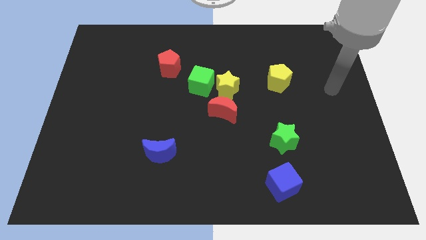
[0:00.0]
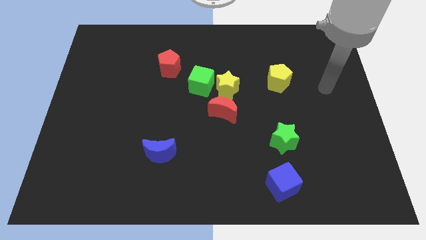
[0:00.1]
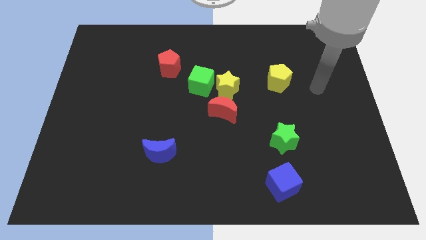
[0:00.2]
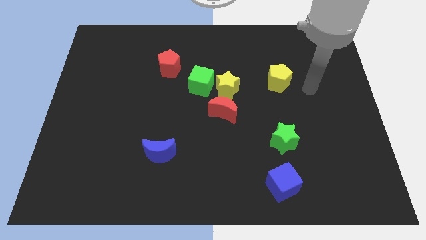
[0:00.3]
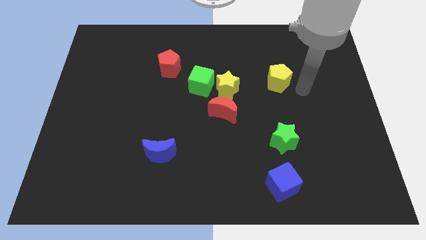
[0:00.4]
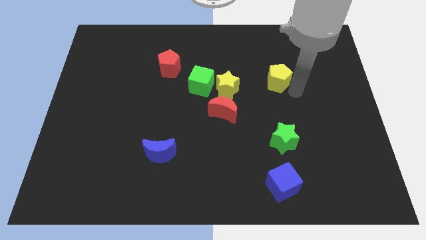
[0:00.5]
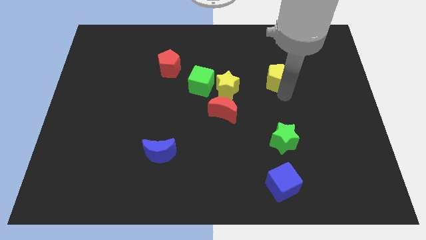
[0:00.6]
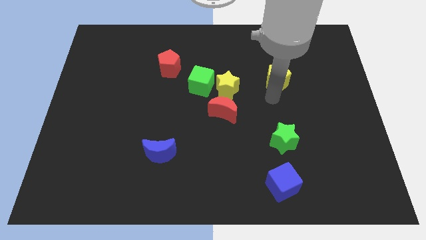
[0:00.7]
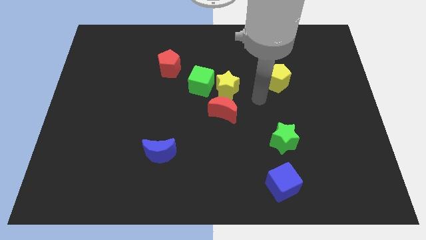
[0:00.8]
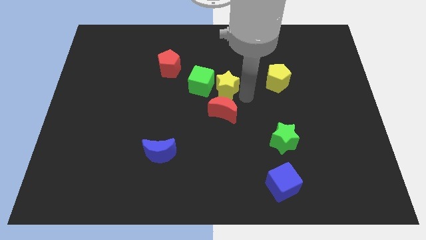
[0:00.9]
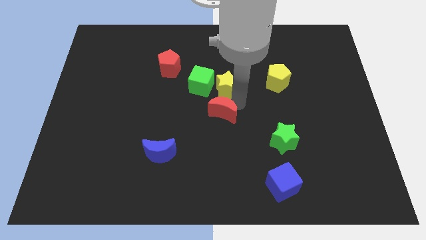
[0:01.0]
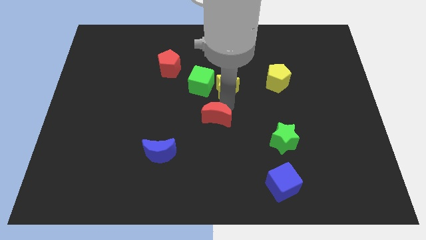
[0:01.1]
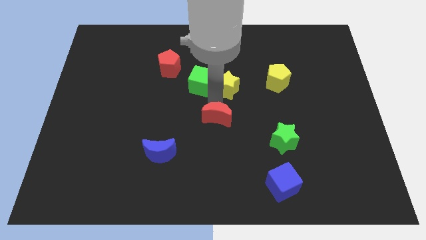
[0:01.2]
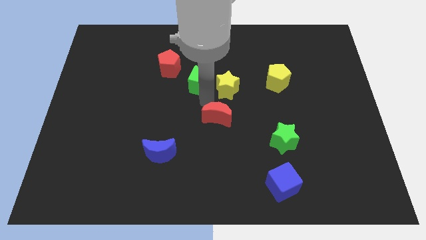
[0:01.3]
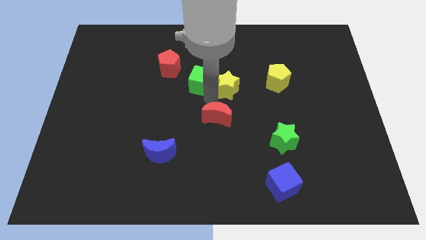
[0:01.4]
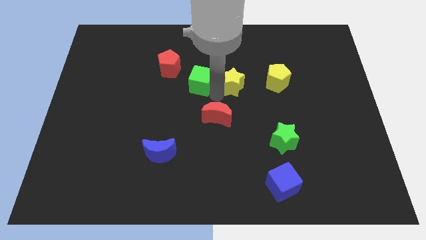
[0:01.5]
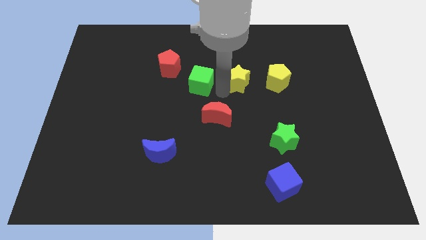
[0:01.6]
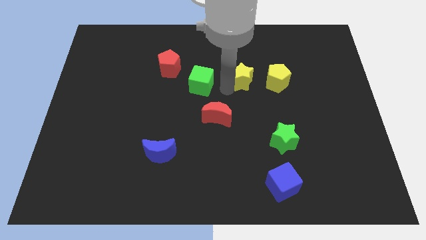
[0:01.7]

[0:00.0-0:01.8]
pull the yellow star apart from the green cube and red moon

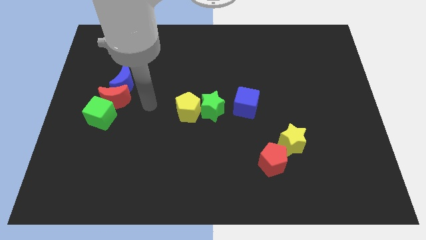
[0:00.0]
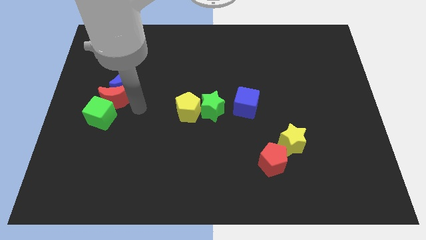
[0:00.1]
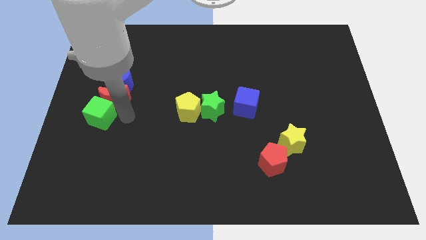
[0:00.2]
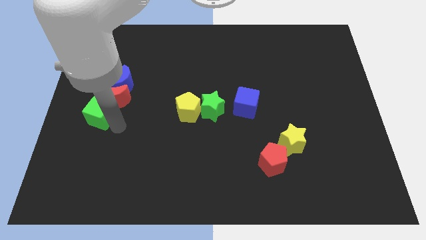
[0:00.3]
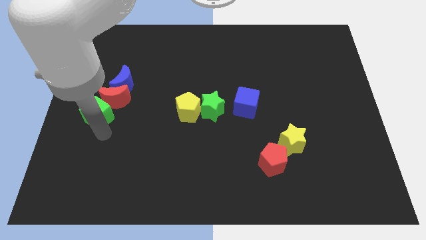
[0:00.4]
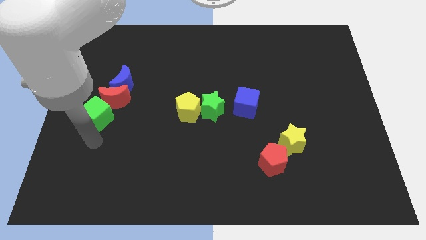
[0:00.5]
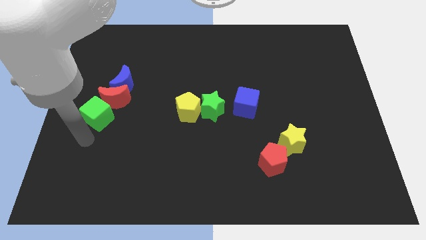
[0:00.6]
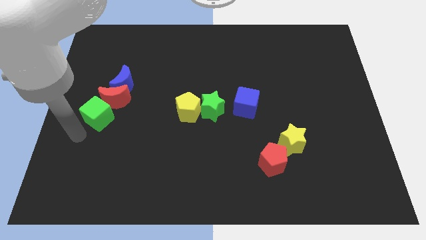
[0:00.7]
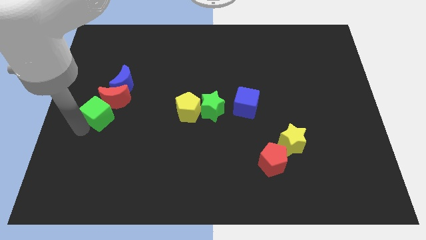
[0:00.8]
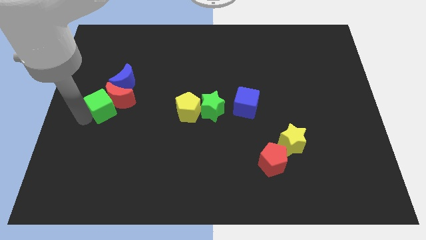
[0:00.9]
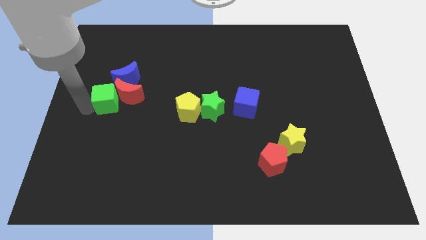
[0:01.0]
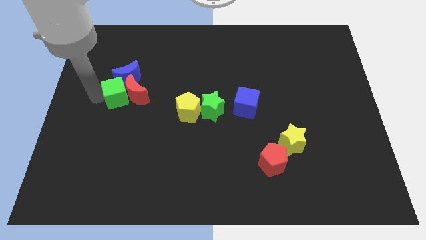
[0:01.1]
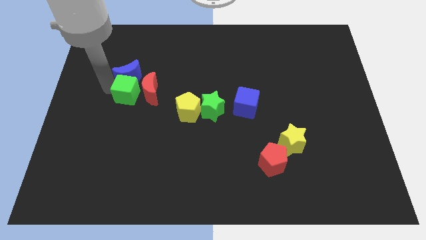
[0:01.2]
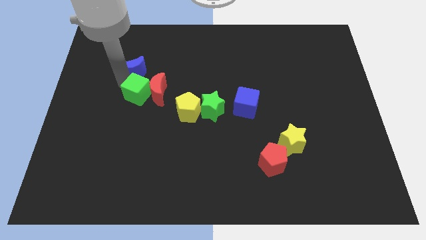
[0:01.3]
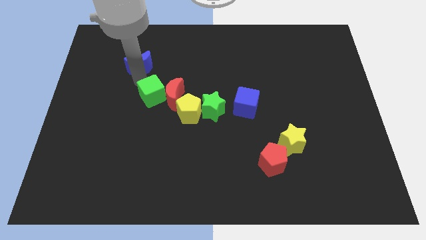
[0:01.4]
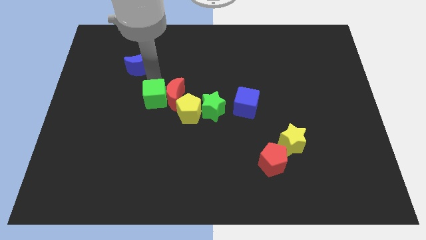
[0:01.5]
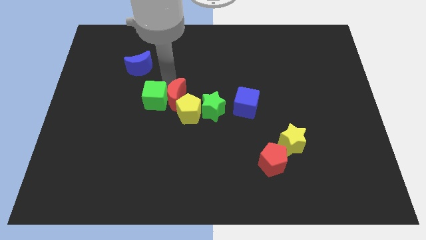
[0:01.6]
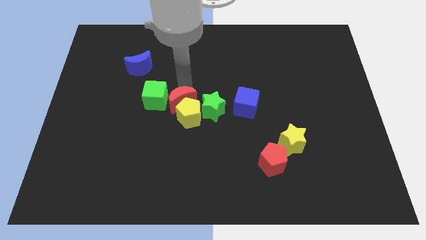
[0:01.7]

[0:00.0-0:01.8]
pull the red moon apart from the blue moon and green cube

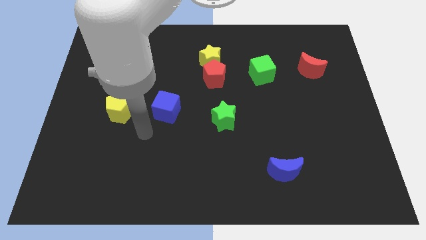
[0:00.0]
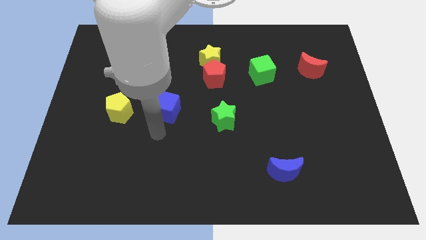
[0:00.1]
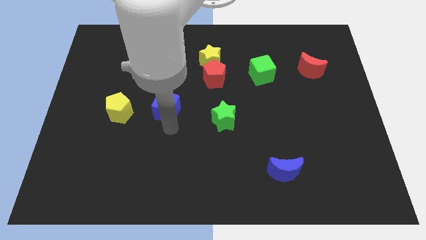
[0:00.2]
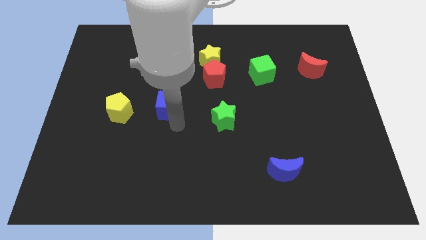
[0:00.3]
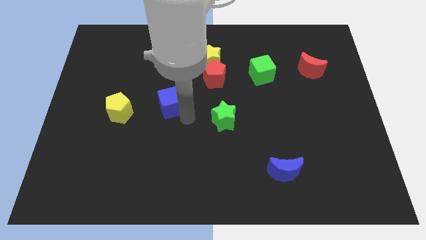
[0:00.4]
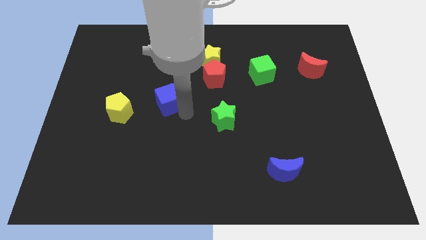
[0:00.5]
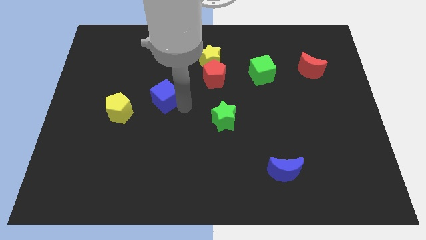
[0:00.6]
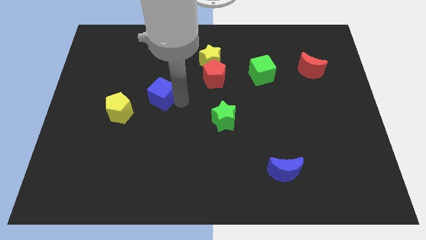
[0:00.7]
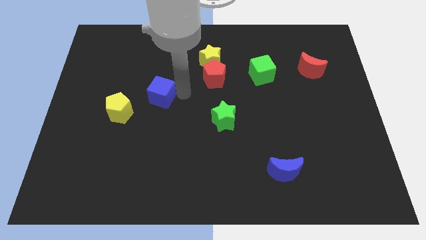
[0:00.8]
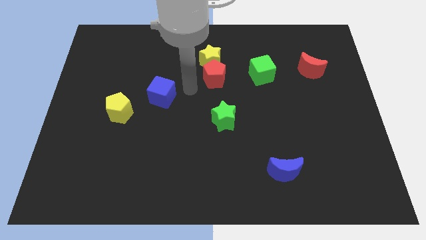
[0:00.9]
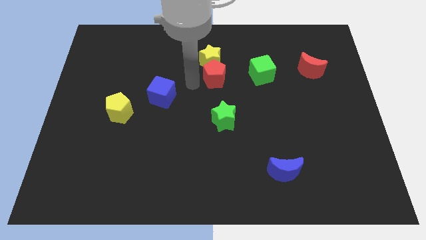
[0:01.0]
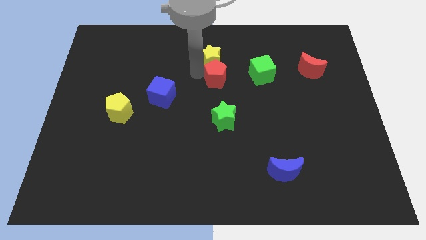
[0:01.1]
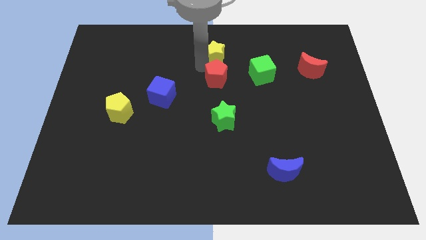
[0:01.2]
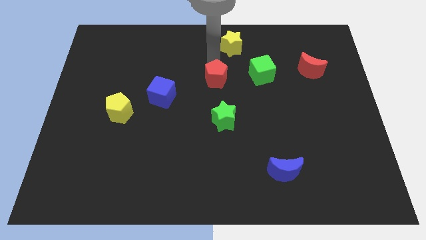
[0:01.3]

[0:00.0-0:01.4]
separate the red pentagon from the yellow star

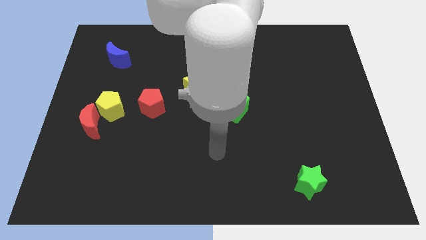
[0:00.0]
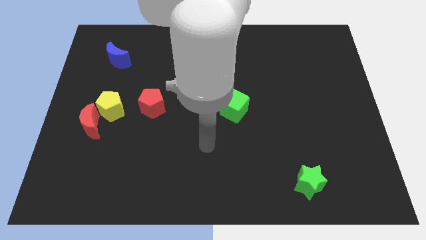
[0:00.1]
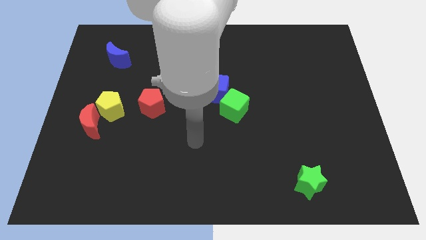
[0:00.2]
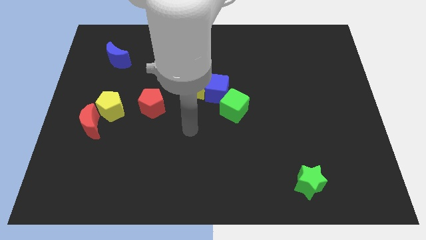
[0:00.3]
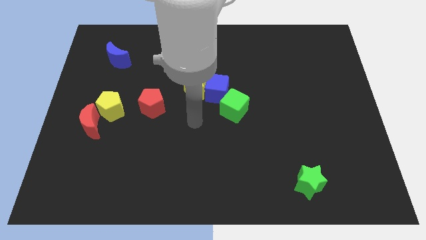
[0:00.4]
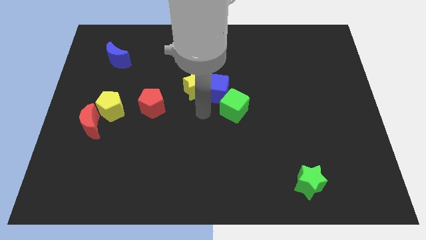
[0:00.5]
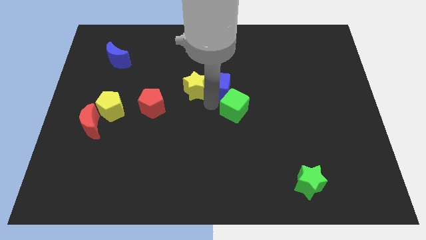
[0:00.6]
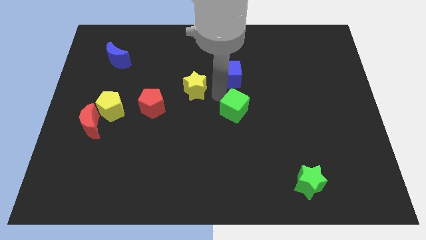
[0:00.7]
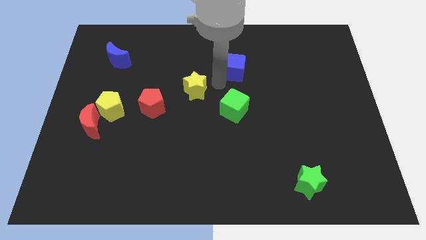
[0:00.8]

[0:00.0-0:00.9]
separate the yellow star from the blue cube

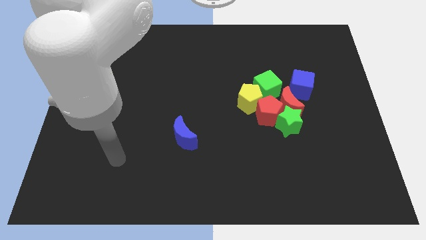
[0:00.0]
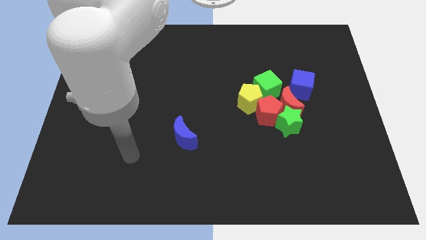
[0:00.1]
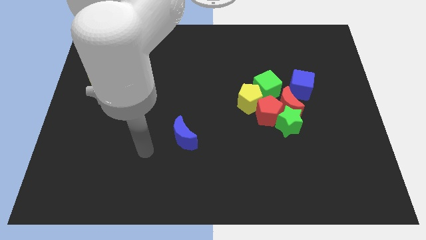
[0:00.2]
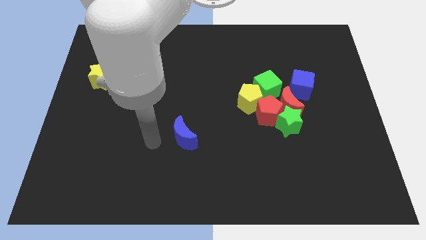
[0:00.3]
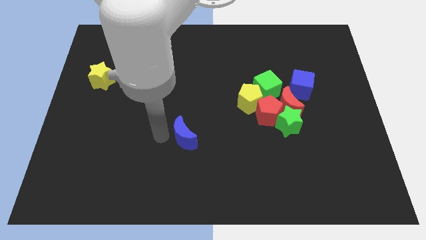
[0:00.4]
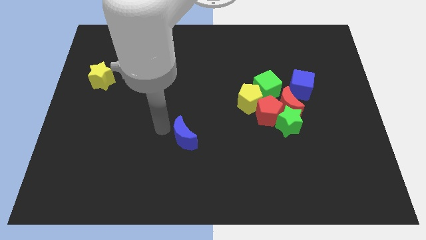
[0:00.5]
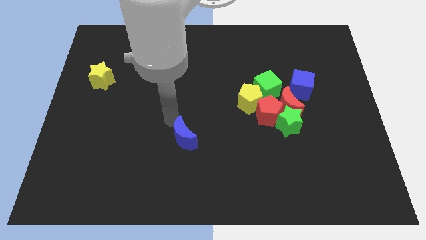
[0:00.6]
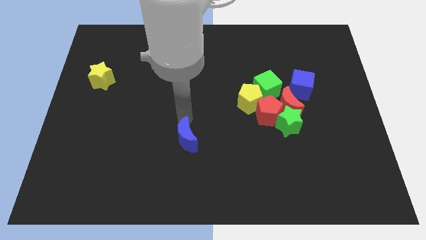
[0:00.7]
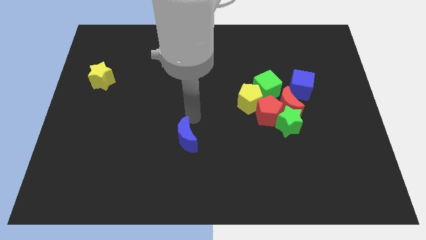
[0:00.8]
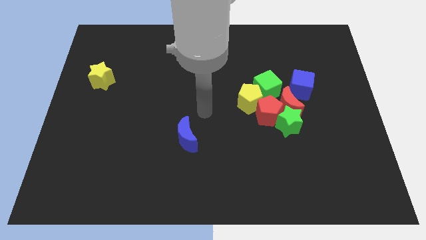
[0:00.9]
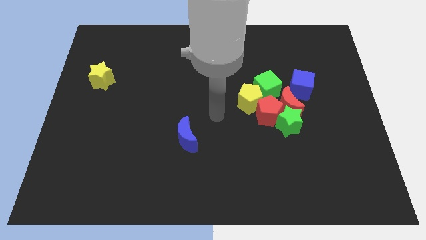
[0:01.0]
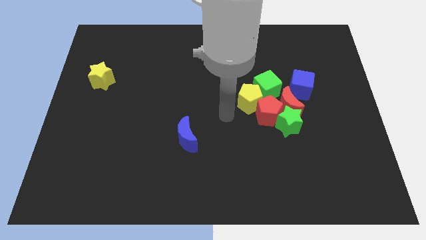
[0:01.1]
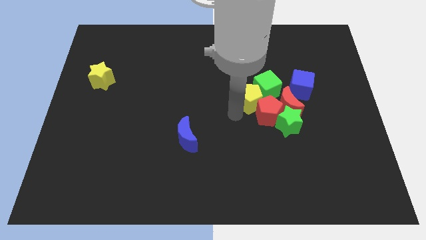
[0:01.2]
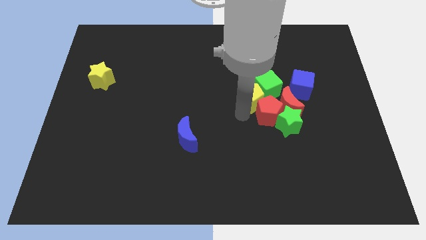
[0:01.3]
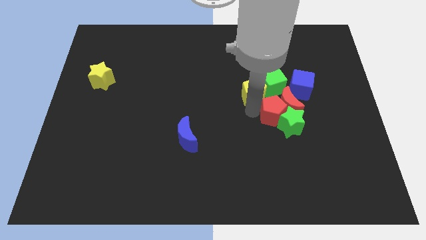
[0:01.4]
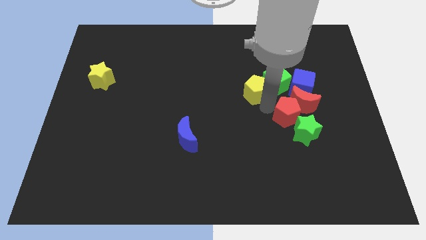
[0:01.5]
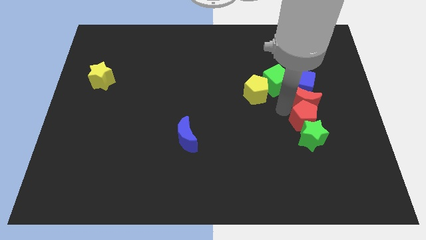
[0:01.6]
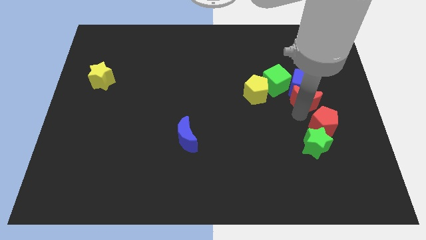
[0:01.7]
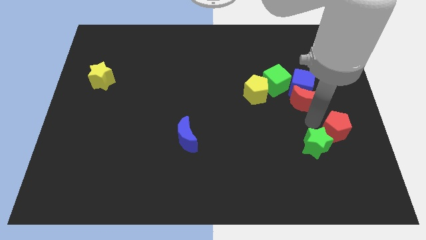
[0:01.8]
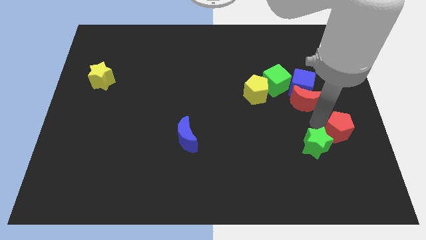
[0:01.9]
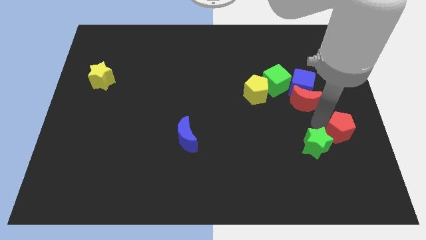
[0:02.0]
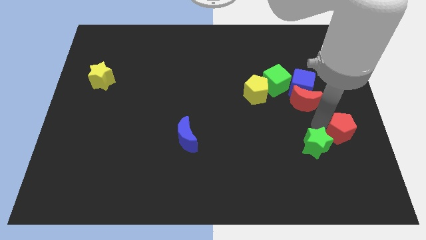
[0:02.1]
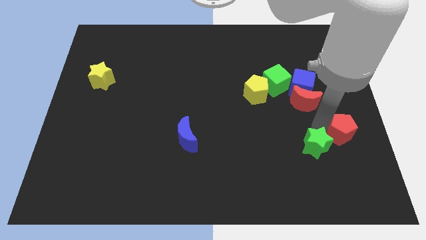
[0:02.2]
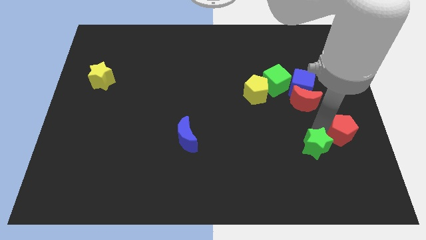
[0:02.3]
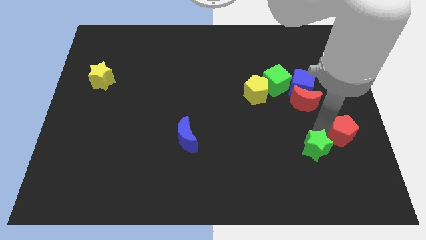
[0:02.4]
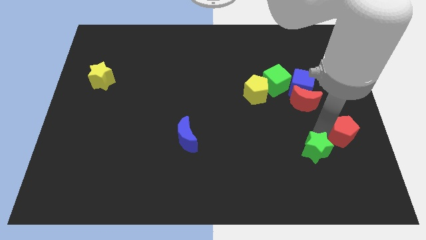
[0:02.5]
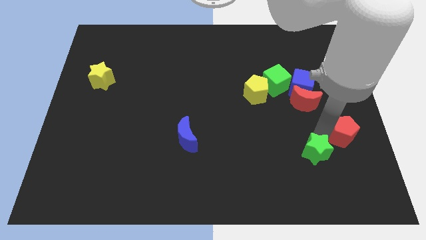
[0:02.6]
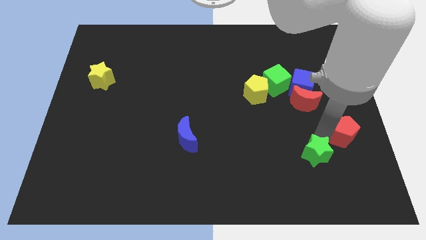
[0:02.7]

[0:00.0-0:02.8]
pull the green star apart from the red moon and red pentagon

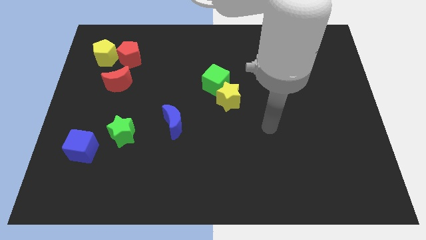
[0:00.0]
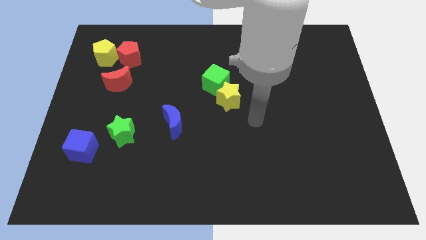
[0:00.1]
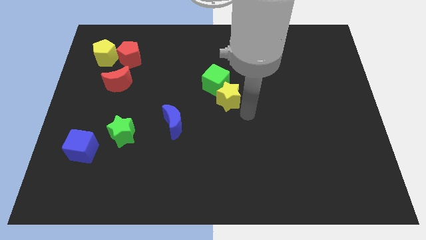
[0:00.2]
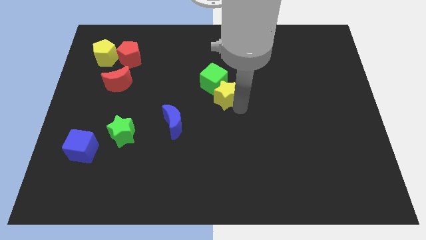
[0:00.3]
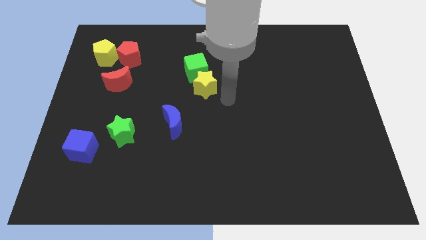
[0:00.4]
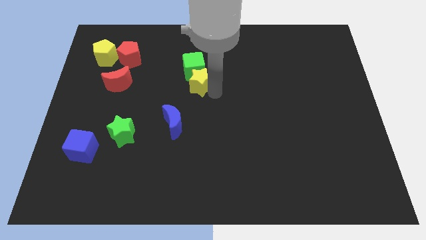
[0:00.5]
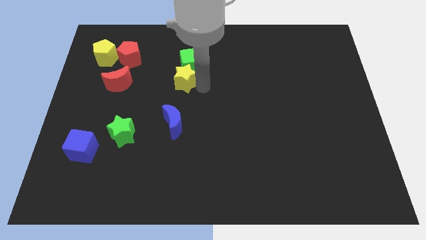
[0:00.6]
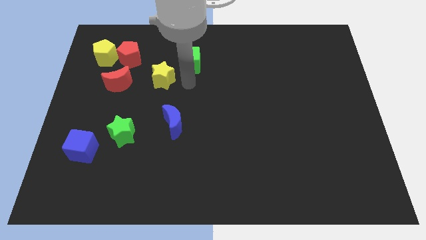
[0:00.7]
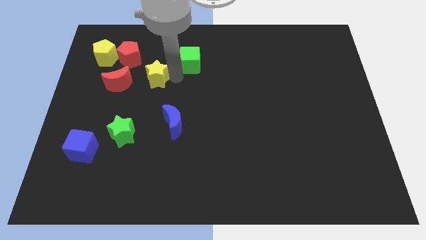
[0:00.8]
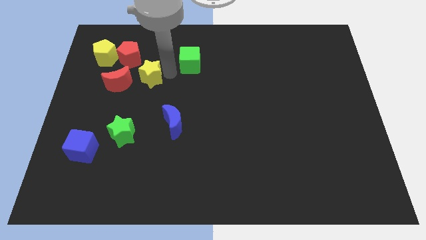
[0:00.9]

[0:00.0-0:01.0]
separate the green cube from the yellow star
